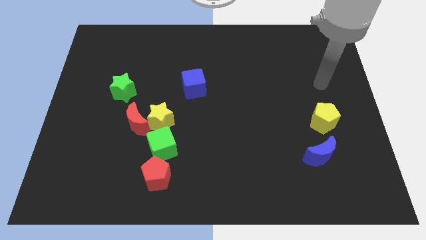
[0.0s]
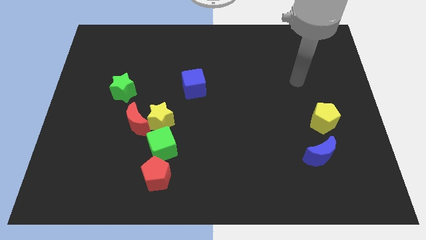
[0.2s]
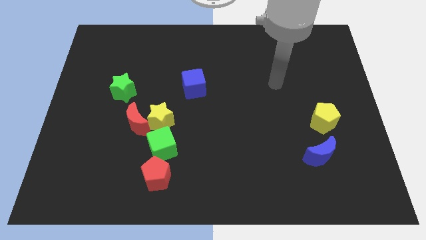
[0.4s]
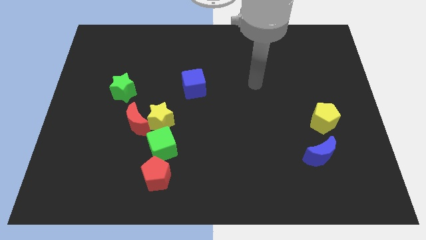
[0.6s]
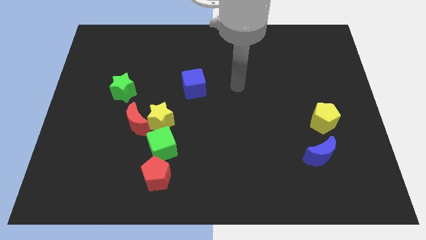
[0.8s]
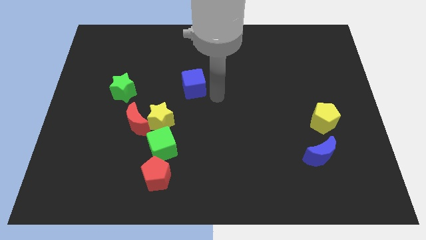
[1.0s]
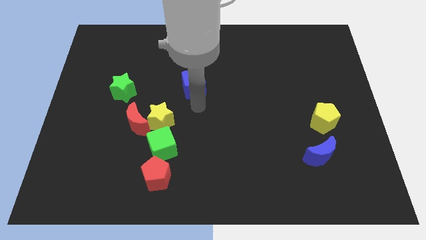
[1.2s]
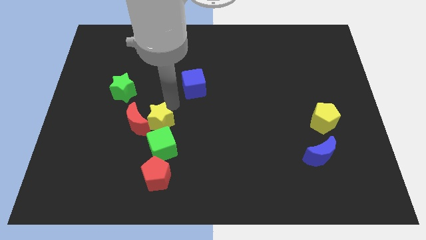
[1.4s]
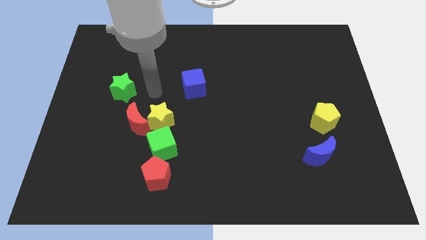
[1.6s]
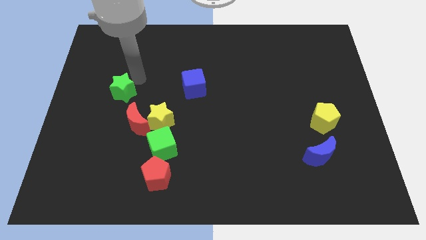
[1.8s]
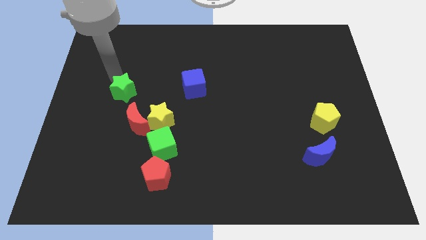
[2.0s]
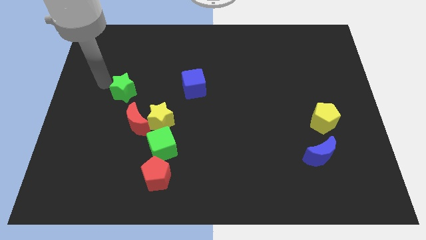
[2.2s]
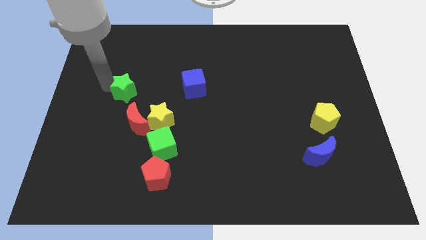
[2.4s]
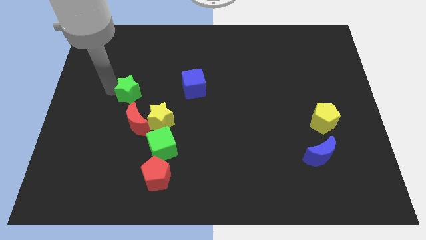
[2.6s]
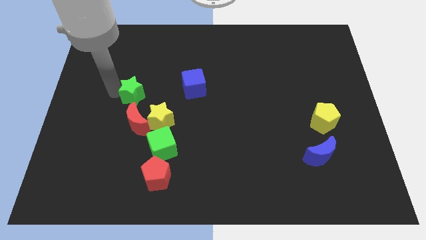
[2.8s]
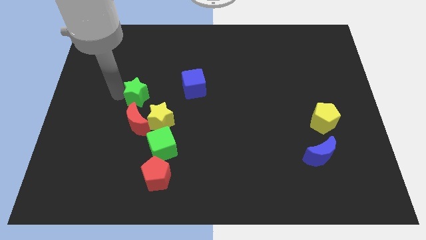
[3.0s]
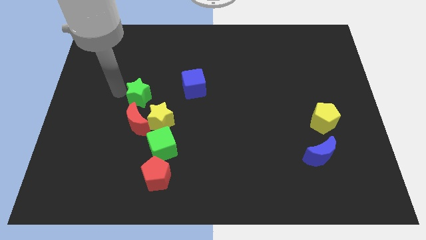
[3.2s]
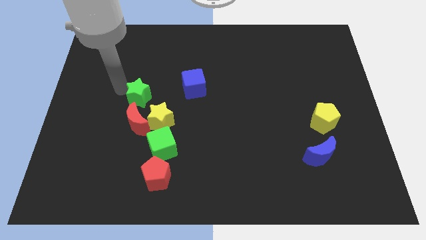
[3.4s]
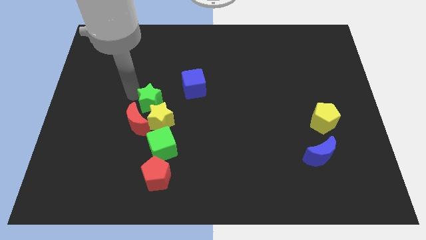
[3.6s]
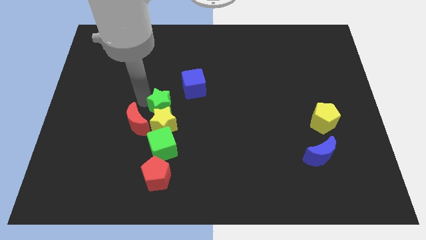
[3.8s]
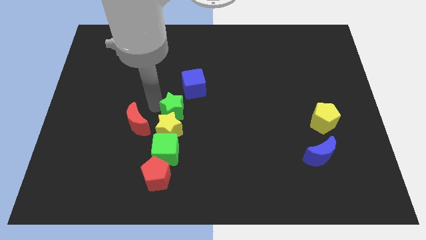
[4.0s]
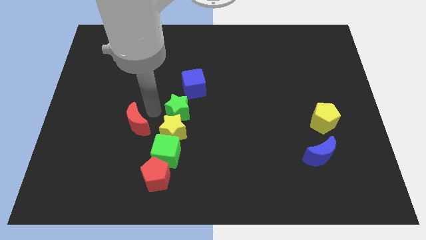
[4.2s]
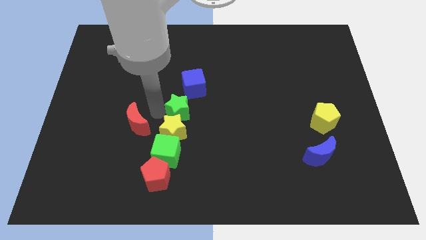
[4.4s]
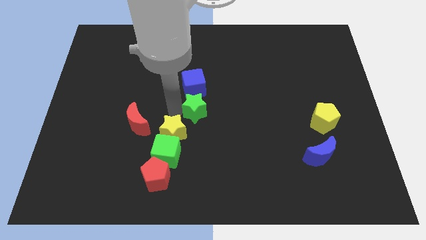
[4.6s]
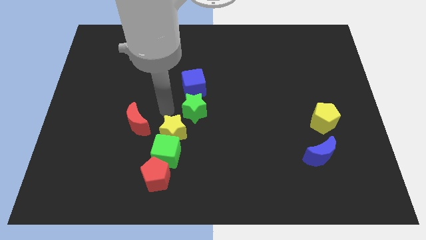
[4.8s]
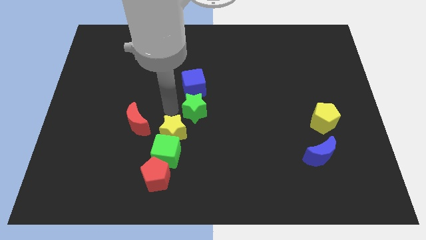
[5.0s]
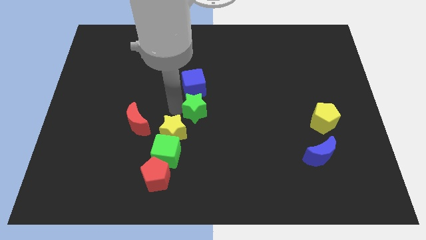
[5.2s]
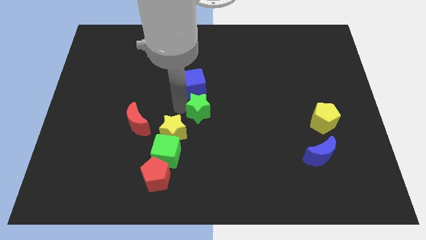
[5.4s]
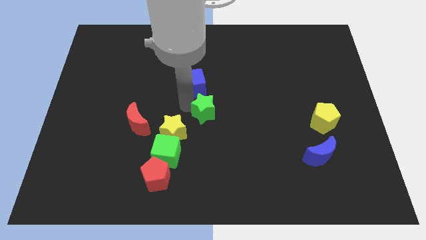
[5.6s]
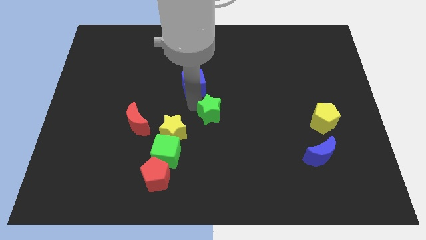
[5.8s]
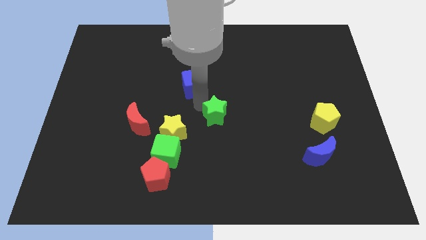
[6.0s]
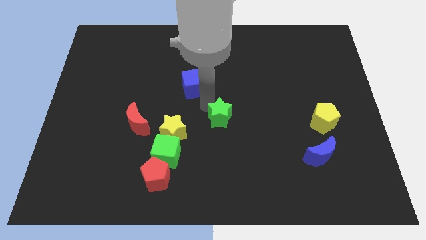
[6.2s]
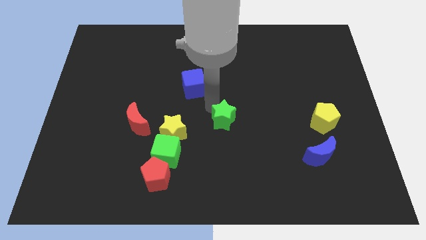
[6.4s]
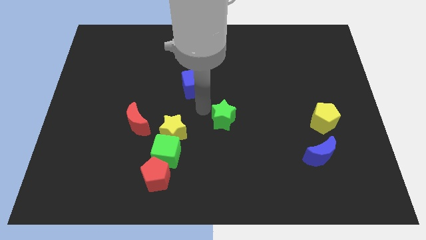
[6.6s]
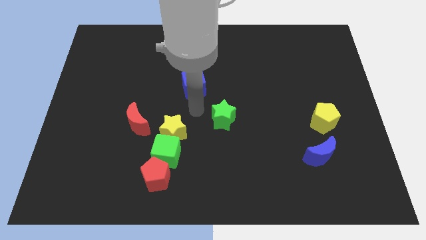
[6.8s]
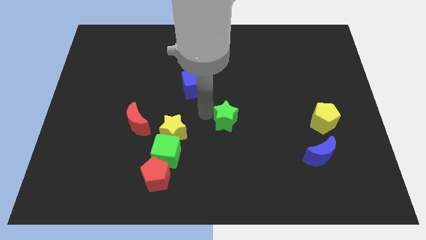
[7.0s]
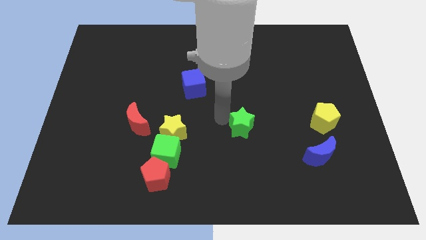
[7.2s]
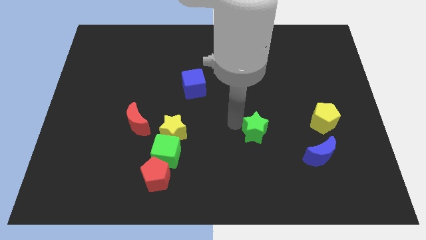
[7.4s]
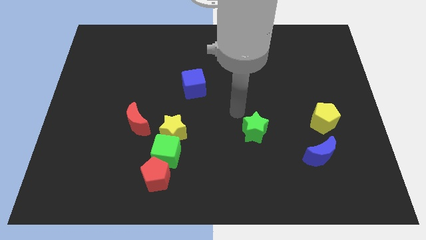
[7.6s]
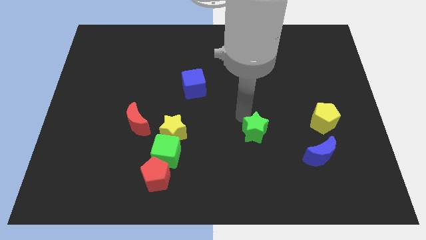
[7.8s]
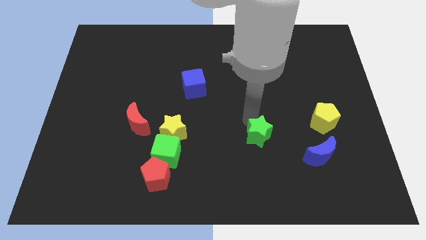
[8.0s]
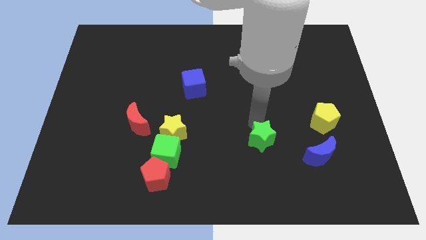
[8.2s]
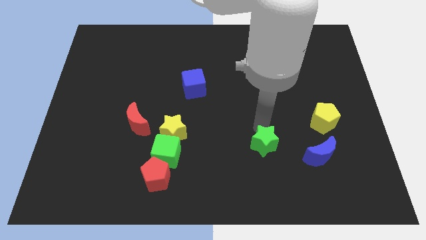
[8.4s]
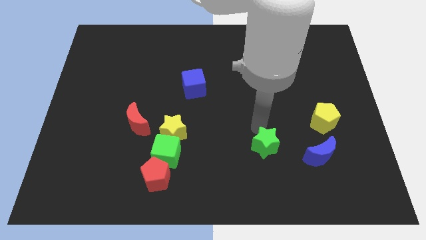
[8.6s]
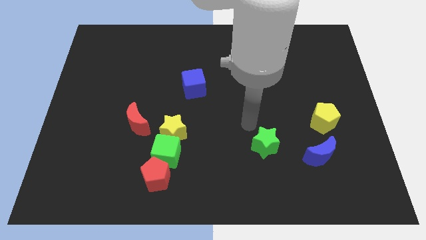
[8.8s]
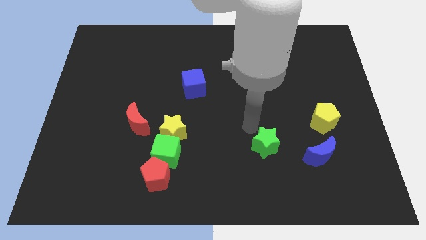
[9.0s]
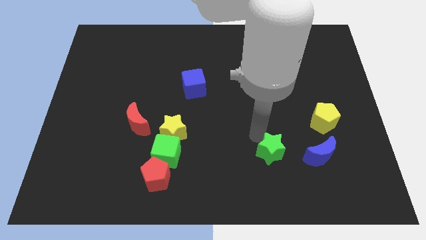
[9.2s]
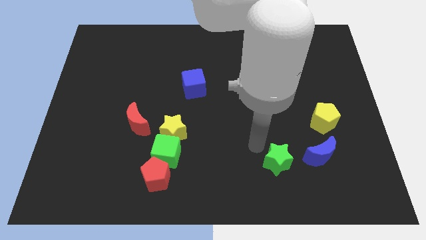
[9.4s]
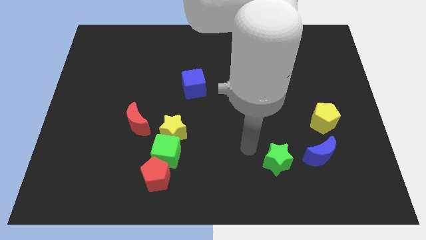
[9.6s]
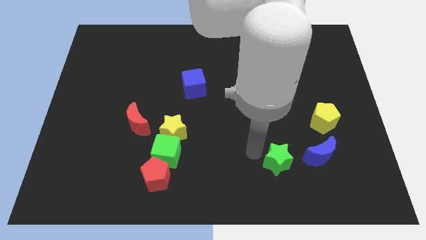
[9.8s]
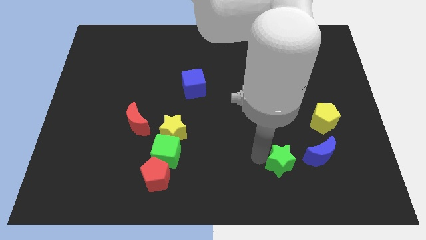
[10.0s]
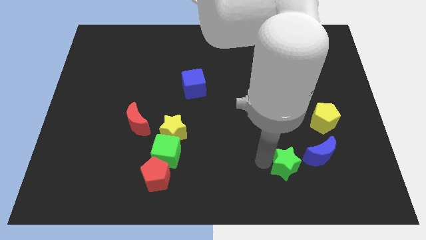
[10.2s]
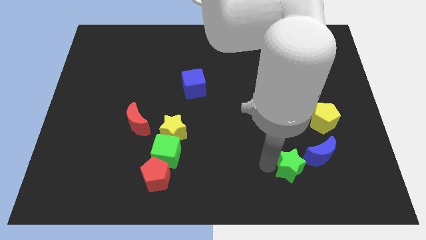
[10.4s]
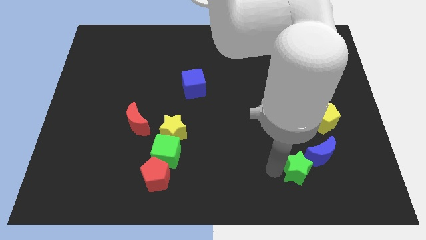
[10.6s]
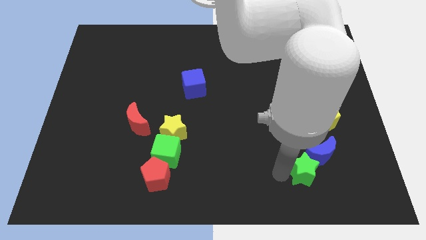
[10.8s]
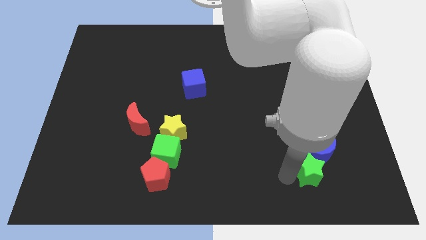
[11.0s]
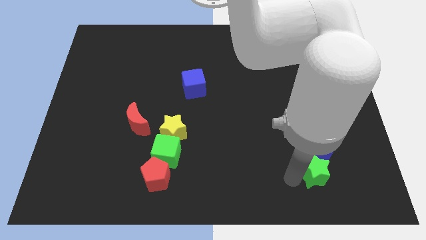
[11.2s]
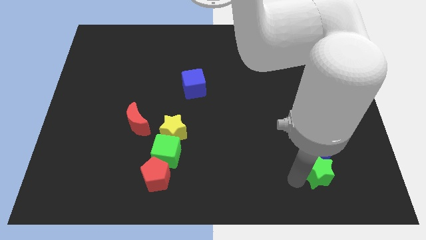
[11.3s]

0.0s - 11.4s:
push the green star to the bottom right of the blue moon

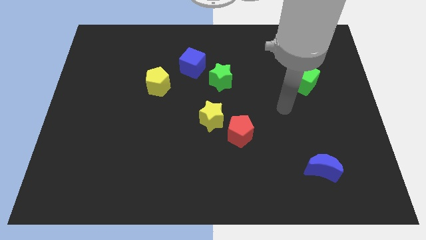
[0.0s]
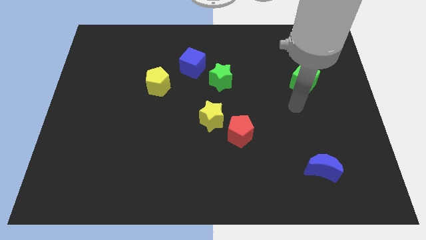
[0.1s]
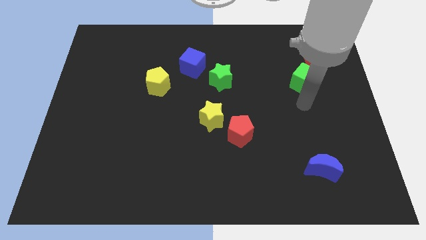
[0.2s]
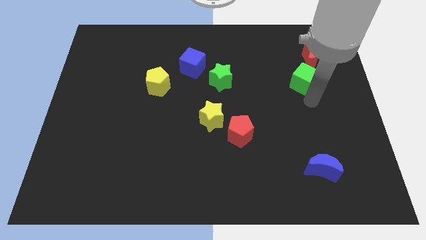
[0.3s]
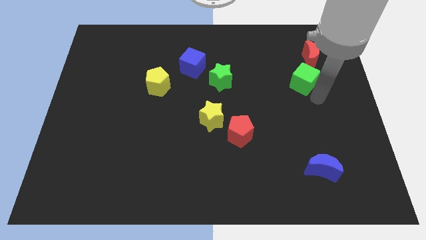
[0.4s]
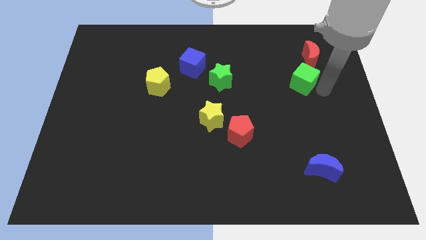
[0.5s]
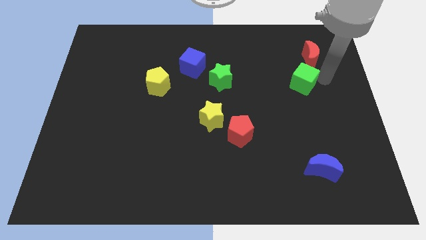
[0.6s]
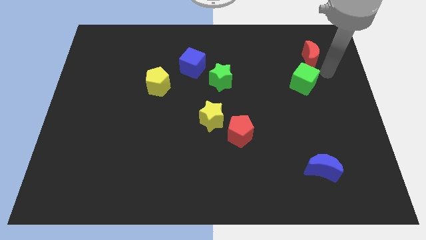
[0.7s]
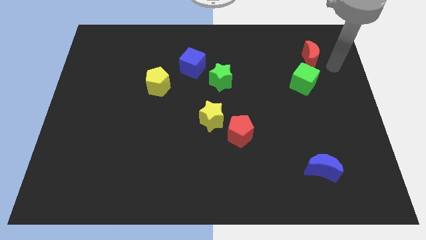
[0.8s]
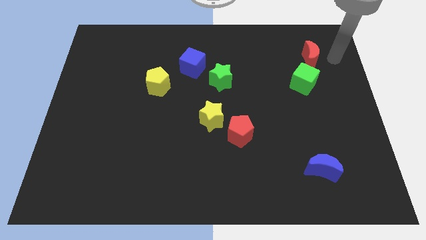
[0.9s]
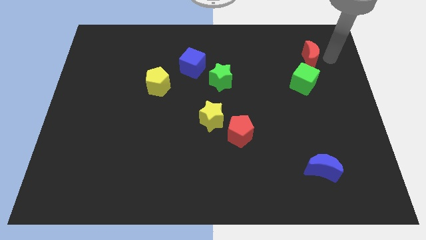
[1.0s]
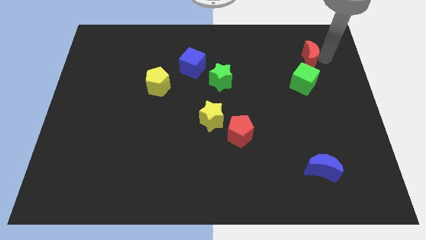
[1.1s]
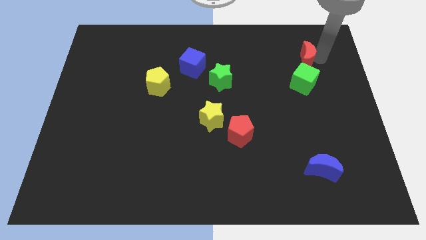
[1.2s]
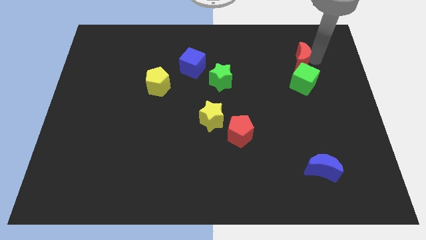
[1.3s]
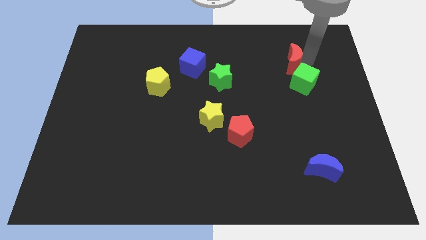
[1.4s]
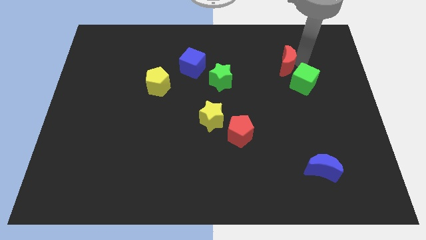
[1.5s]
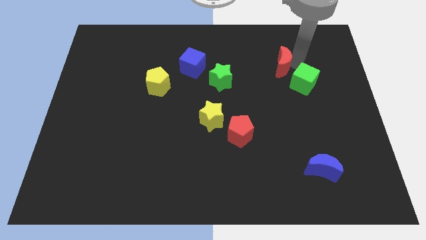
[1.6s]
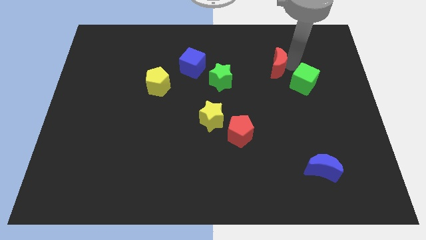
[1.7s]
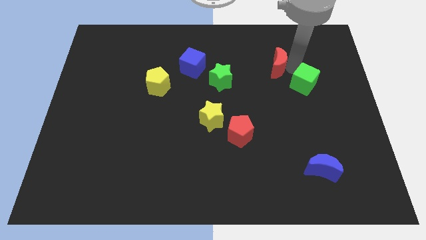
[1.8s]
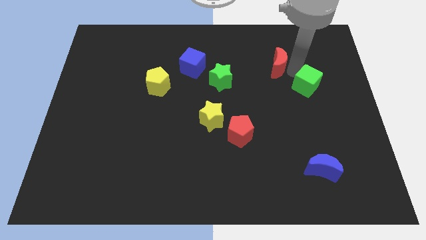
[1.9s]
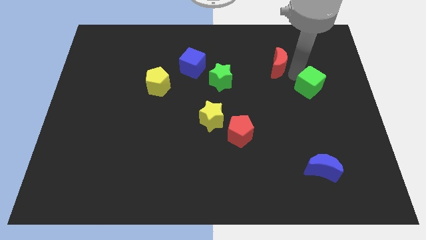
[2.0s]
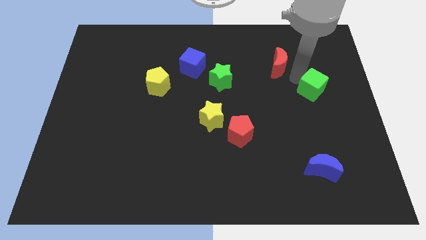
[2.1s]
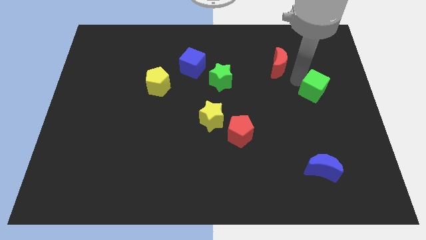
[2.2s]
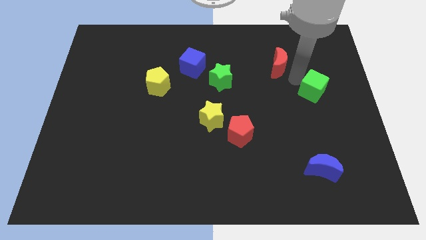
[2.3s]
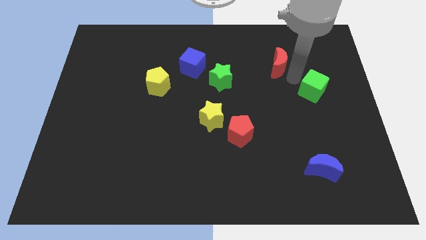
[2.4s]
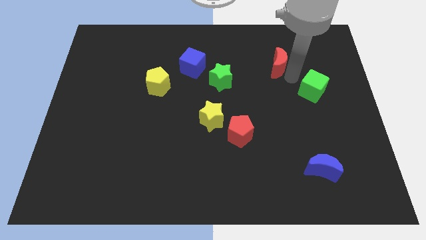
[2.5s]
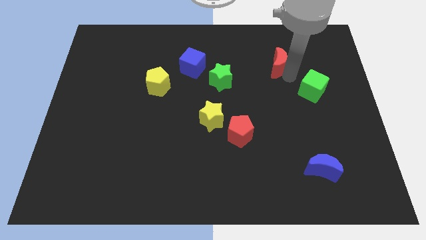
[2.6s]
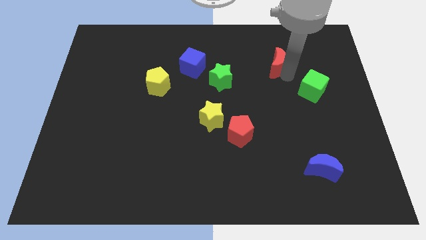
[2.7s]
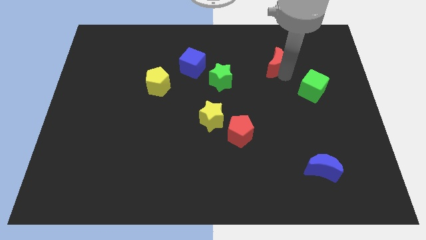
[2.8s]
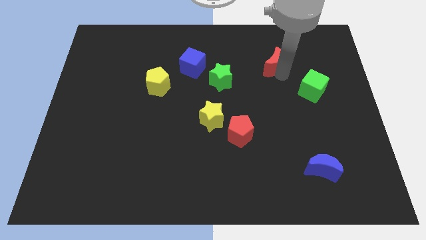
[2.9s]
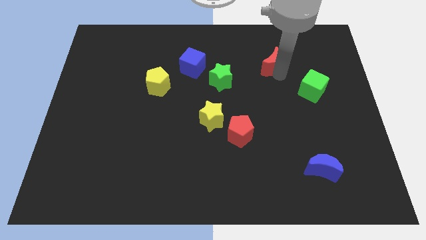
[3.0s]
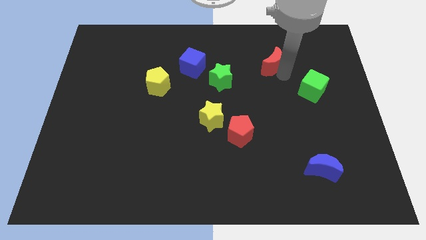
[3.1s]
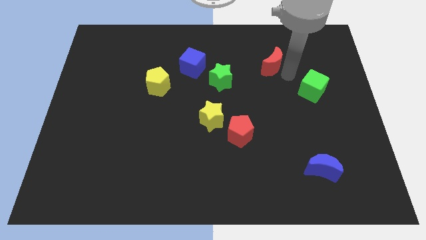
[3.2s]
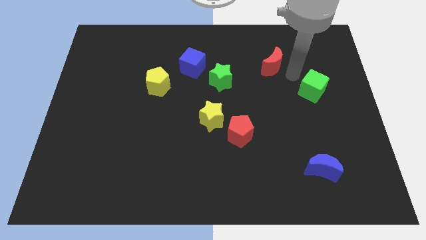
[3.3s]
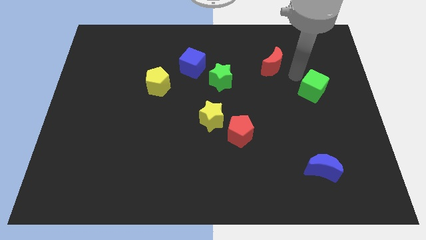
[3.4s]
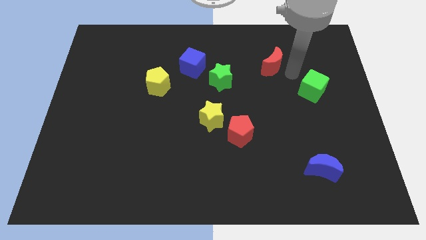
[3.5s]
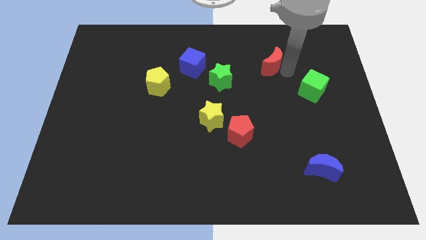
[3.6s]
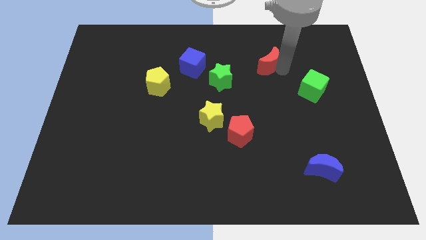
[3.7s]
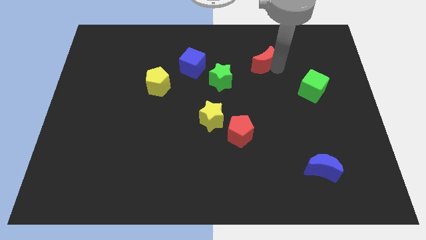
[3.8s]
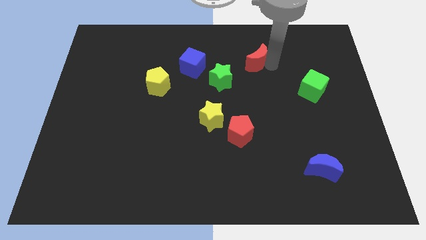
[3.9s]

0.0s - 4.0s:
put the red moon to the top right of the green star
